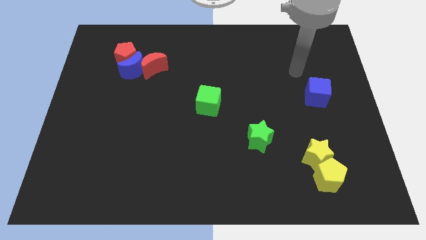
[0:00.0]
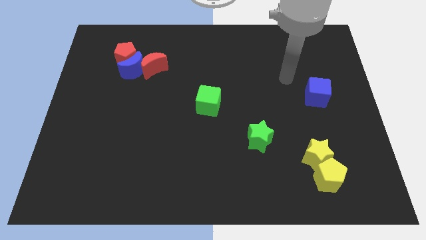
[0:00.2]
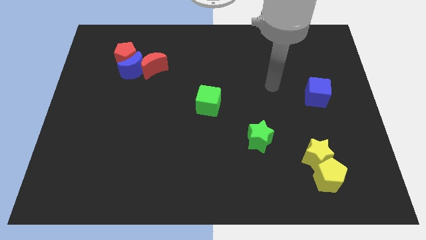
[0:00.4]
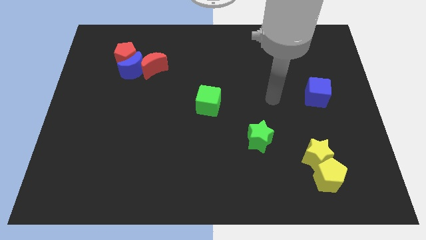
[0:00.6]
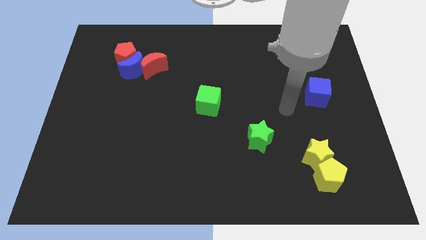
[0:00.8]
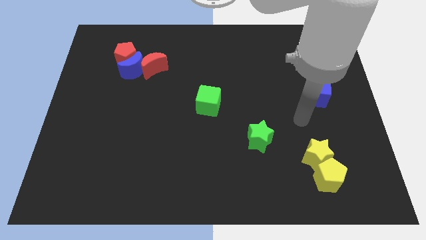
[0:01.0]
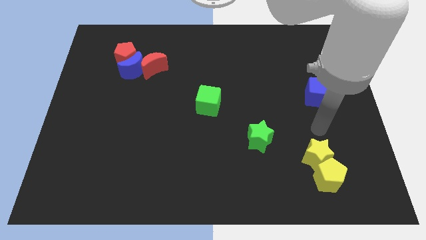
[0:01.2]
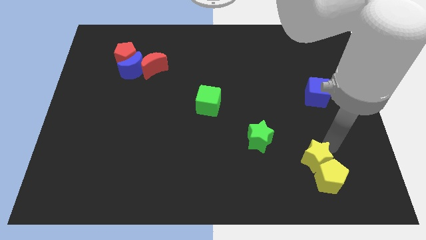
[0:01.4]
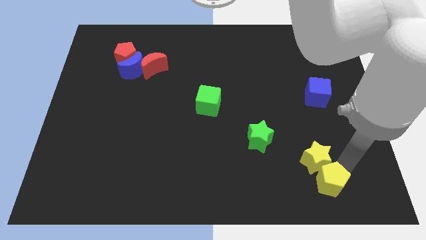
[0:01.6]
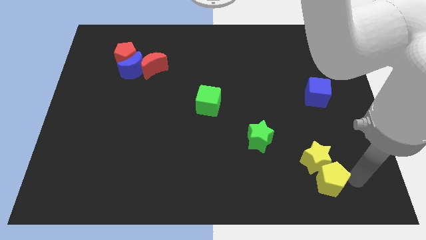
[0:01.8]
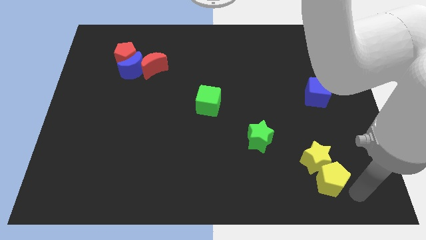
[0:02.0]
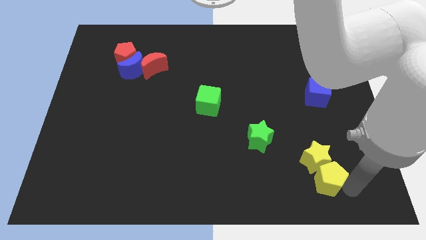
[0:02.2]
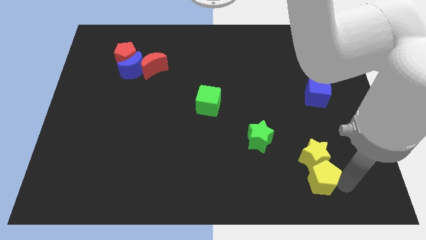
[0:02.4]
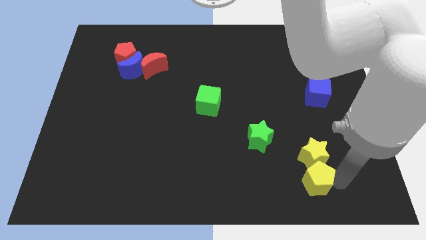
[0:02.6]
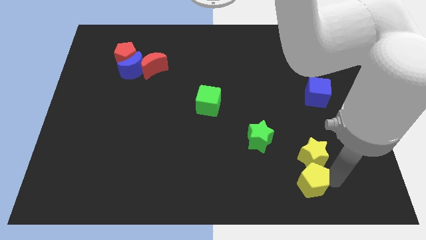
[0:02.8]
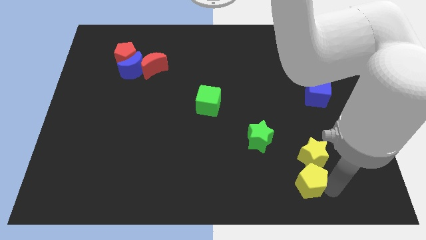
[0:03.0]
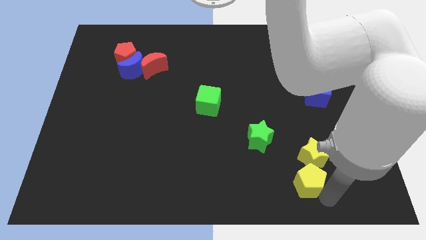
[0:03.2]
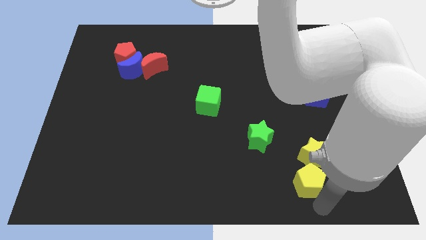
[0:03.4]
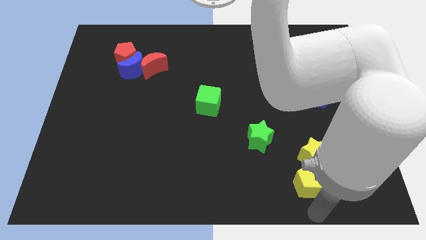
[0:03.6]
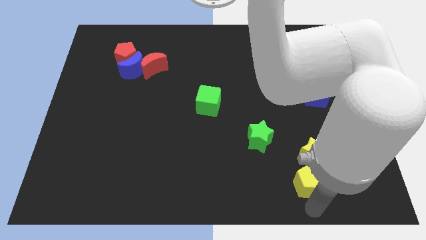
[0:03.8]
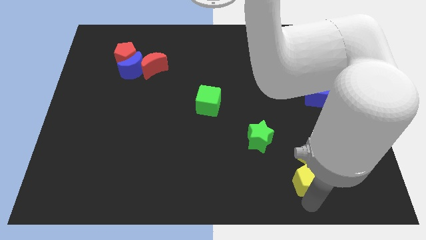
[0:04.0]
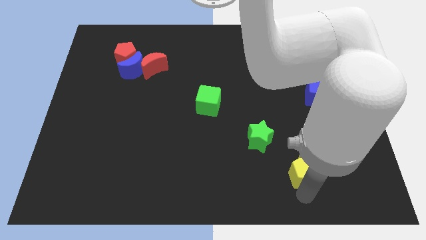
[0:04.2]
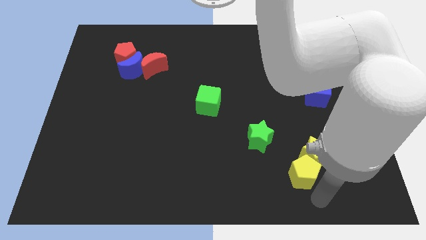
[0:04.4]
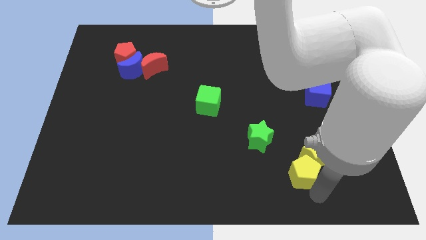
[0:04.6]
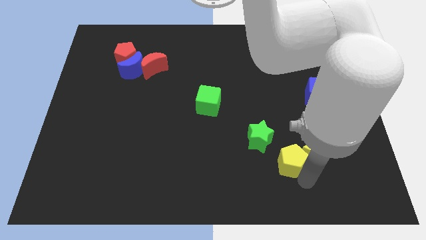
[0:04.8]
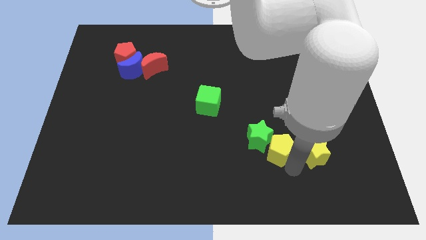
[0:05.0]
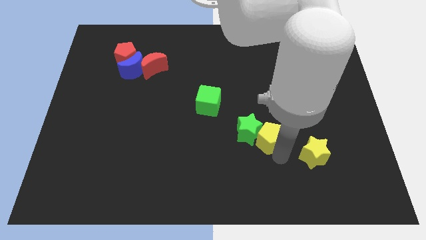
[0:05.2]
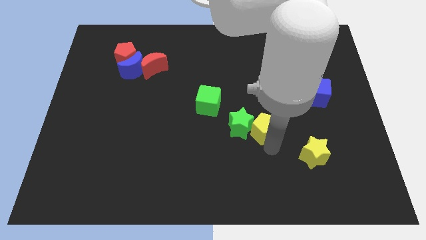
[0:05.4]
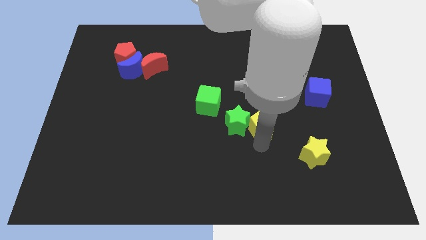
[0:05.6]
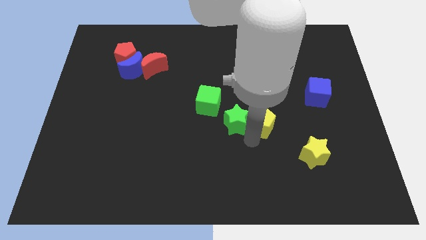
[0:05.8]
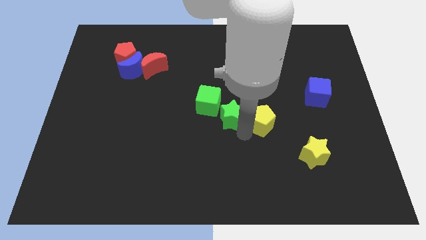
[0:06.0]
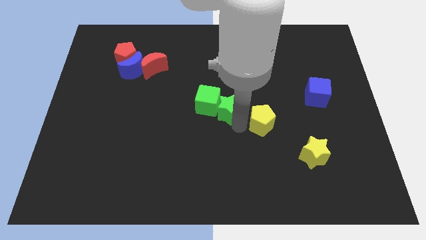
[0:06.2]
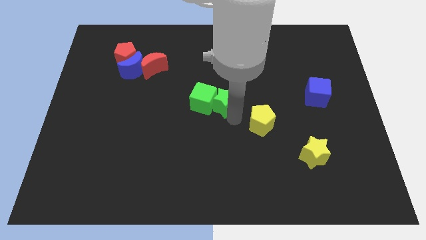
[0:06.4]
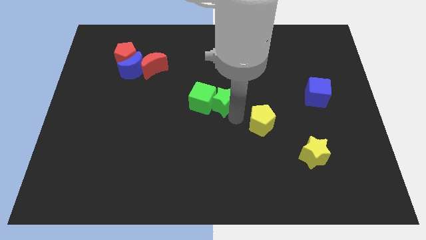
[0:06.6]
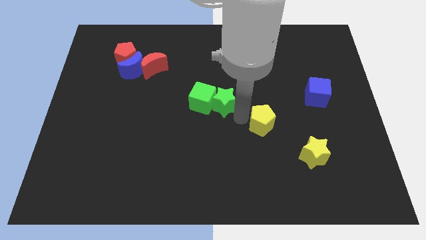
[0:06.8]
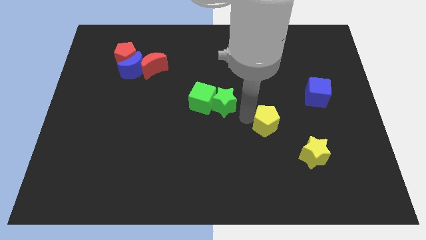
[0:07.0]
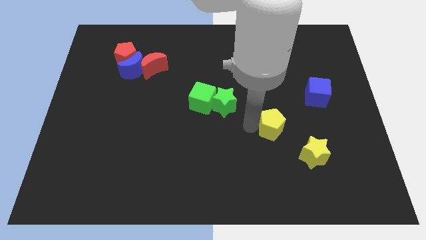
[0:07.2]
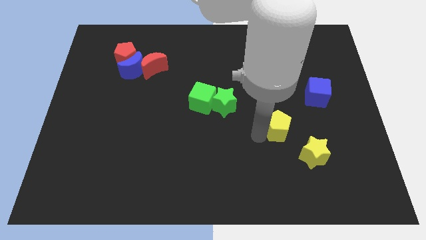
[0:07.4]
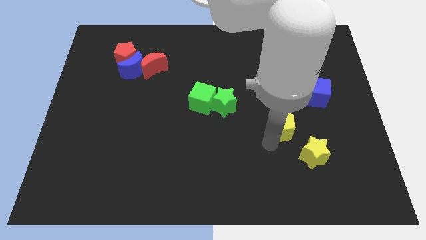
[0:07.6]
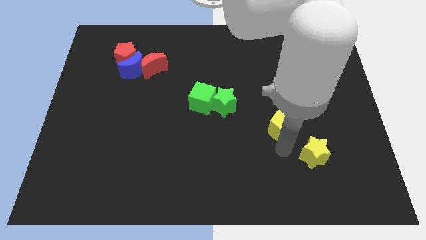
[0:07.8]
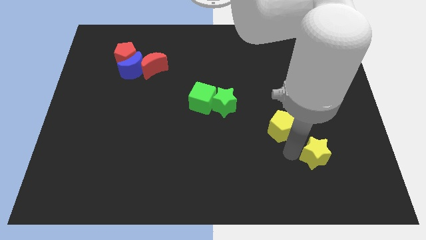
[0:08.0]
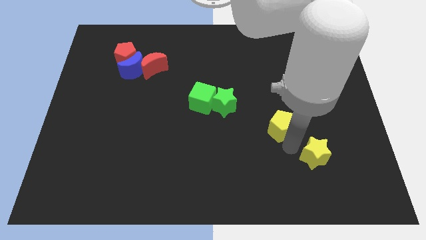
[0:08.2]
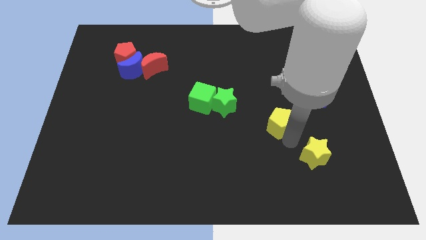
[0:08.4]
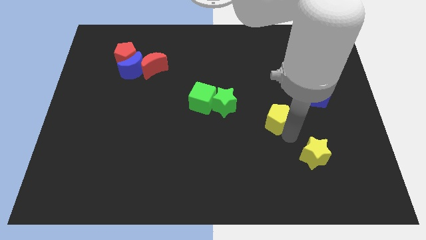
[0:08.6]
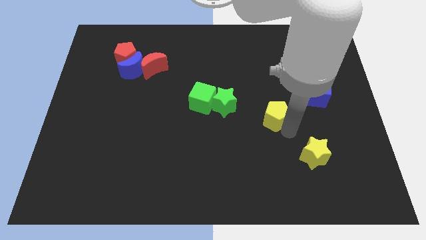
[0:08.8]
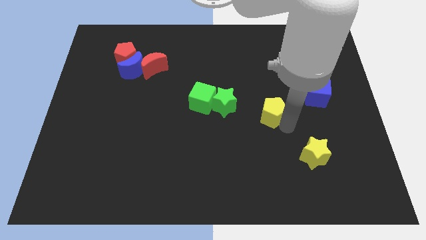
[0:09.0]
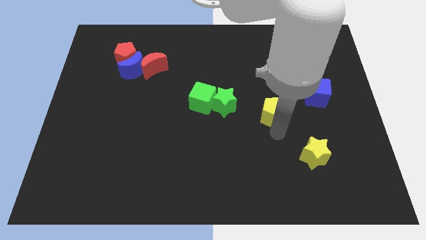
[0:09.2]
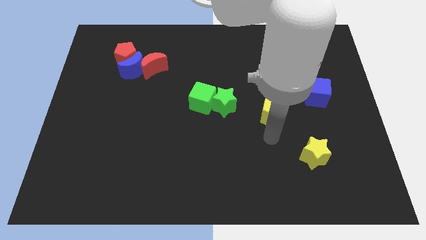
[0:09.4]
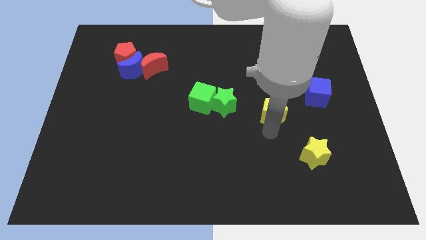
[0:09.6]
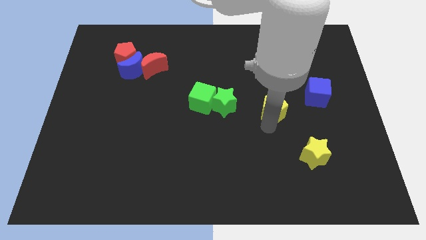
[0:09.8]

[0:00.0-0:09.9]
move the yellow pentagon to the left side of the blue cube

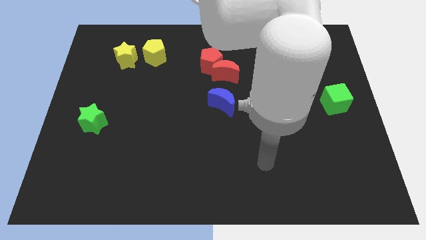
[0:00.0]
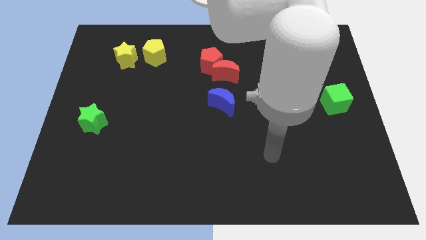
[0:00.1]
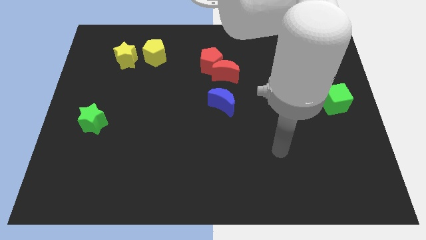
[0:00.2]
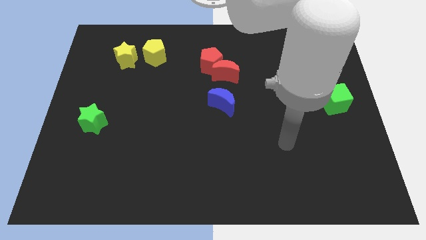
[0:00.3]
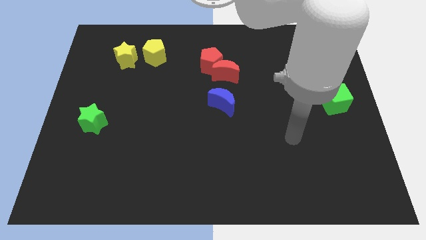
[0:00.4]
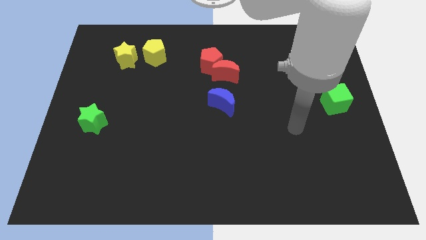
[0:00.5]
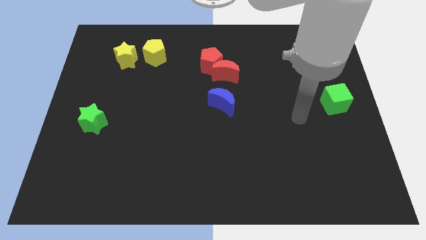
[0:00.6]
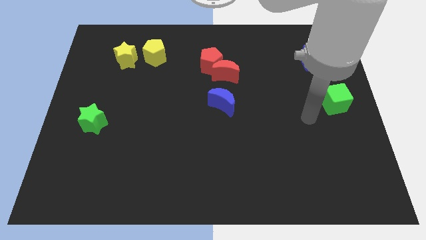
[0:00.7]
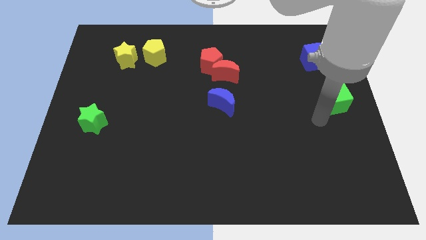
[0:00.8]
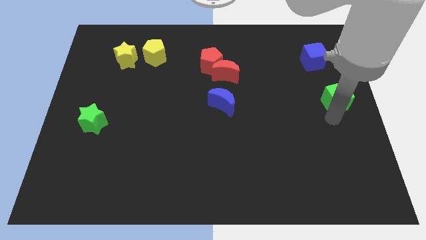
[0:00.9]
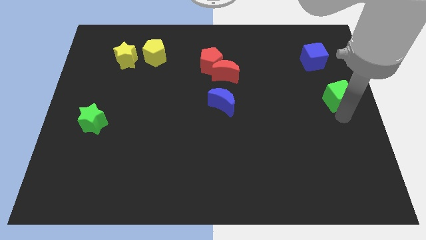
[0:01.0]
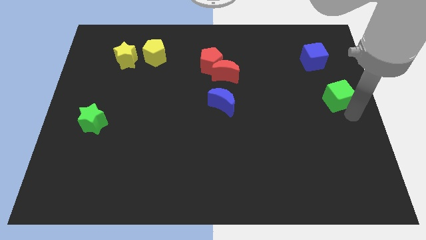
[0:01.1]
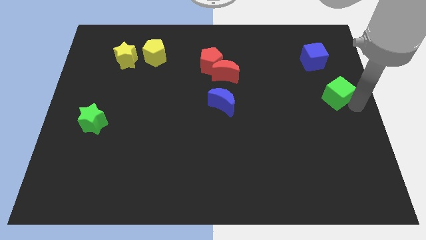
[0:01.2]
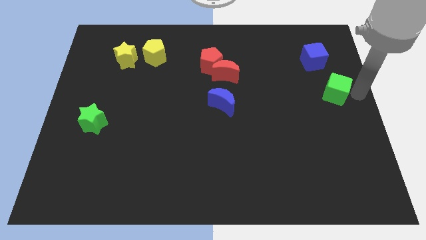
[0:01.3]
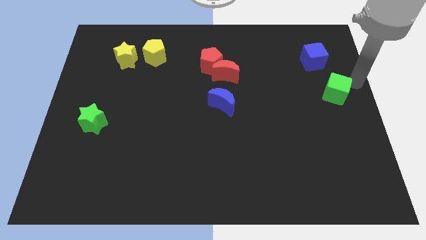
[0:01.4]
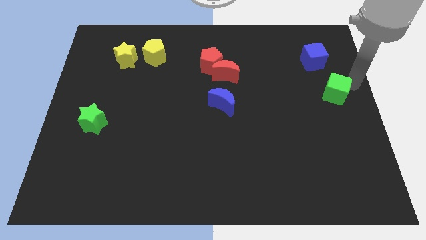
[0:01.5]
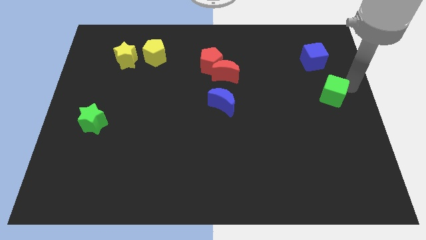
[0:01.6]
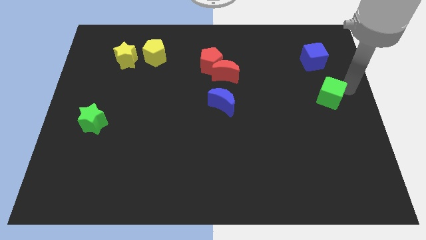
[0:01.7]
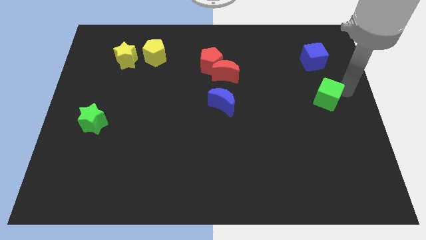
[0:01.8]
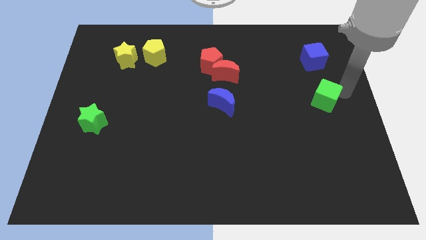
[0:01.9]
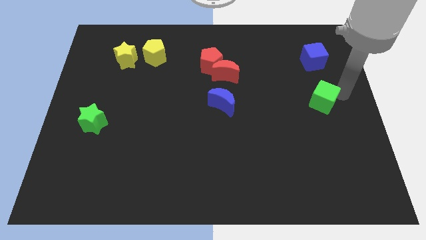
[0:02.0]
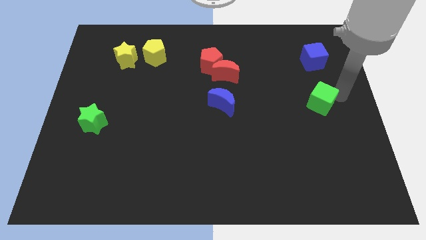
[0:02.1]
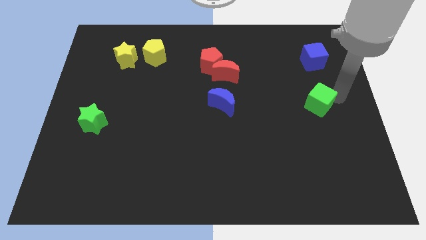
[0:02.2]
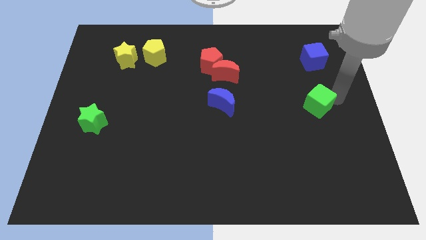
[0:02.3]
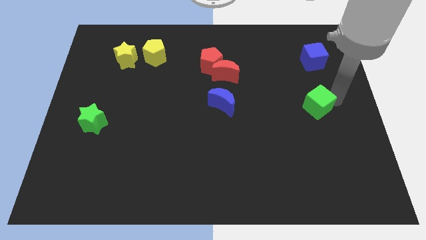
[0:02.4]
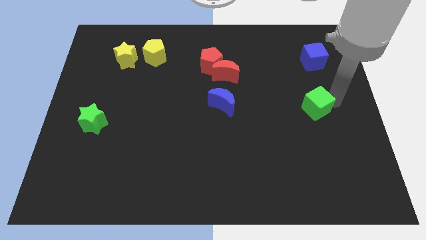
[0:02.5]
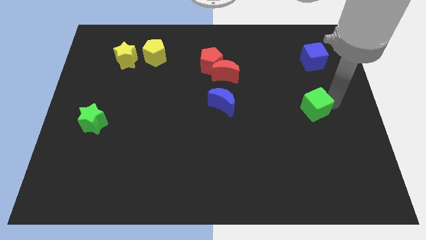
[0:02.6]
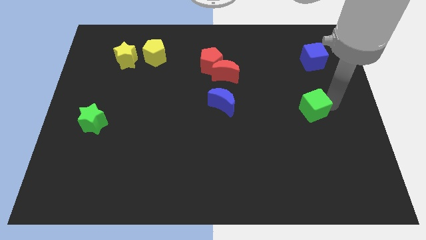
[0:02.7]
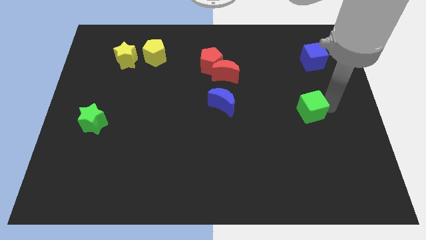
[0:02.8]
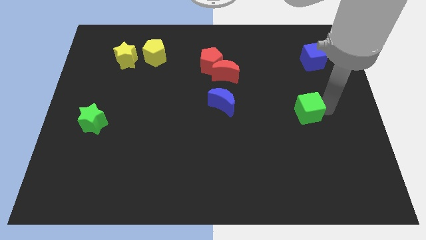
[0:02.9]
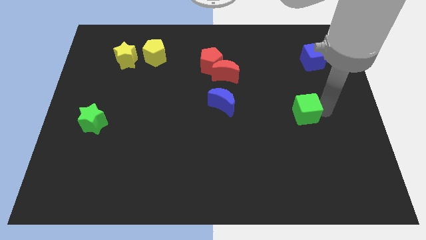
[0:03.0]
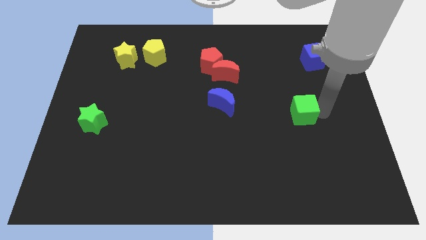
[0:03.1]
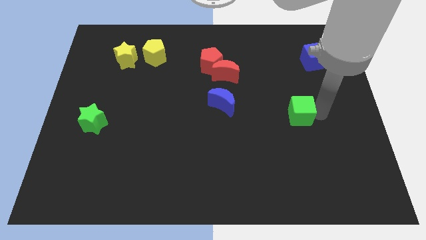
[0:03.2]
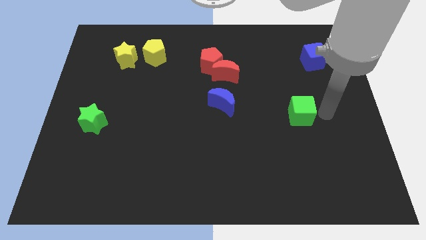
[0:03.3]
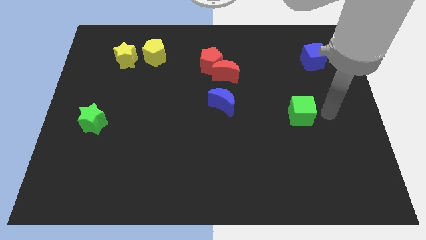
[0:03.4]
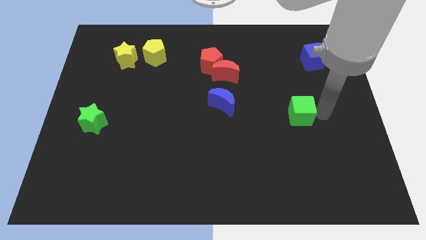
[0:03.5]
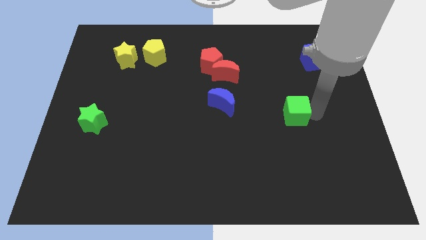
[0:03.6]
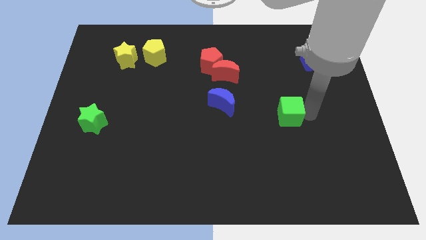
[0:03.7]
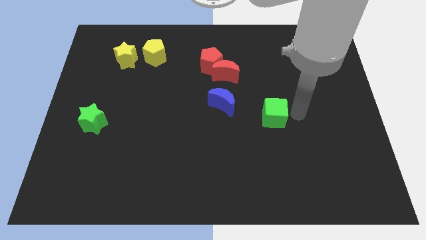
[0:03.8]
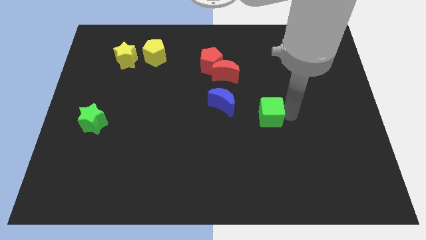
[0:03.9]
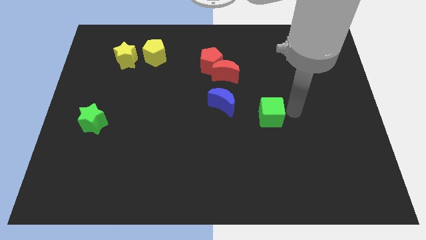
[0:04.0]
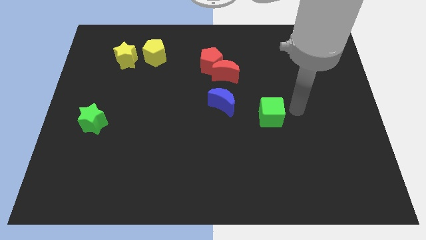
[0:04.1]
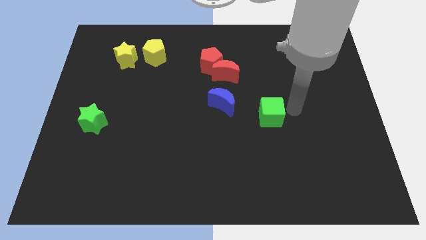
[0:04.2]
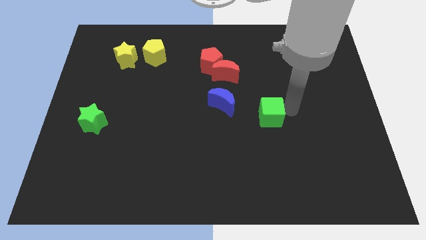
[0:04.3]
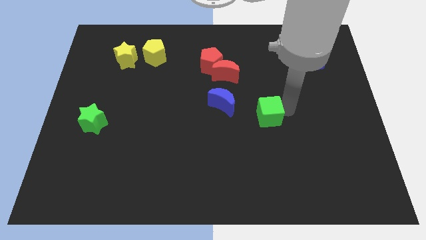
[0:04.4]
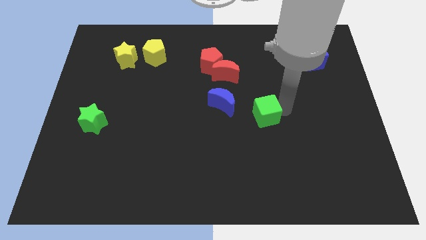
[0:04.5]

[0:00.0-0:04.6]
move the green cube to the bottom right of the blue moon
